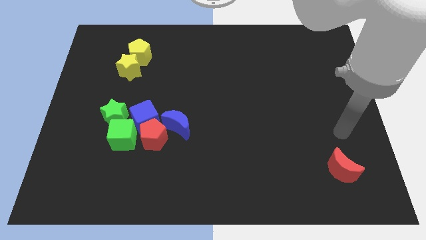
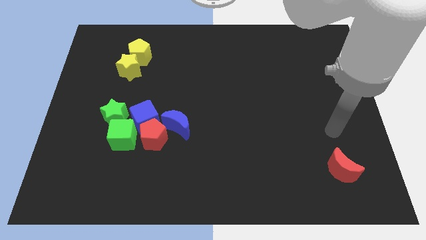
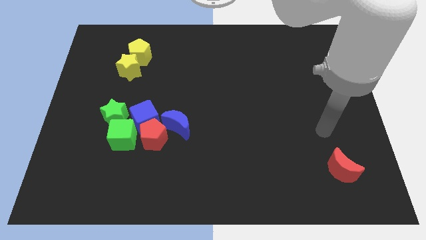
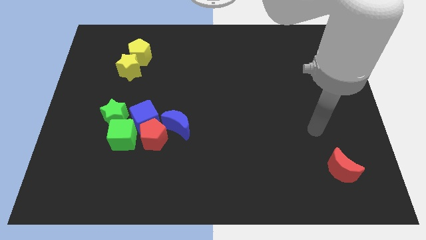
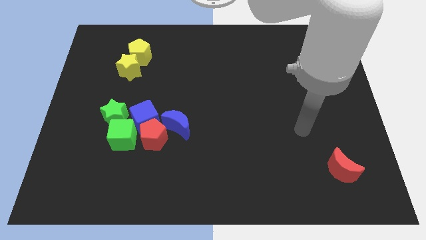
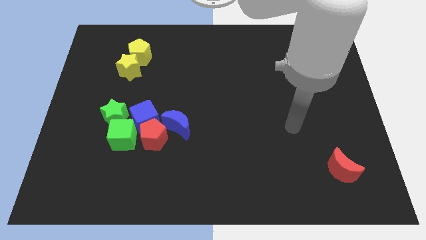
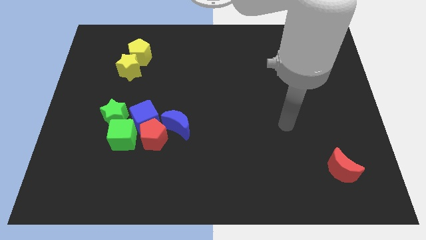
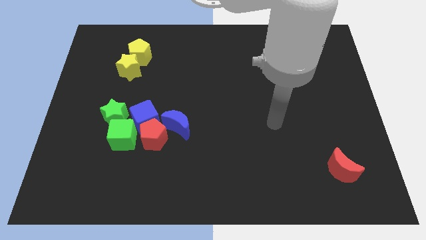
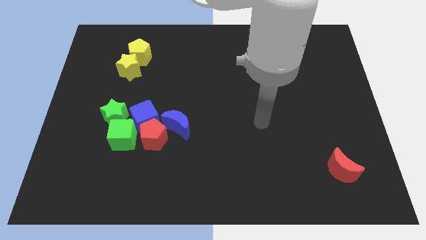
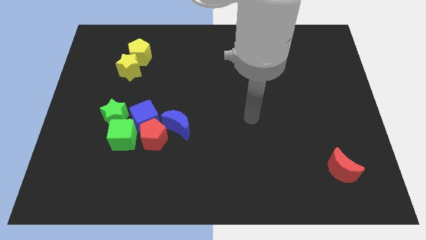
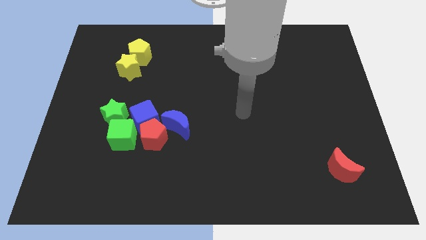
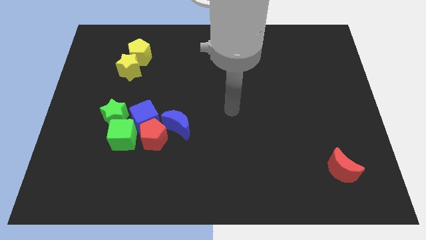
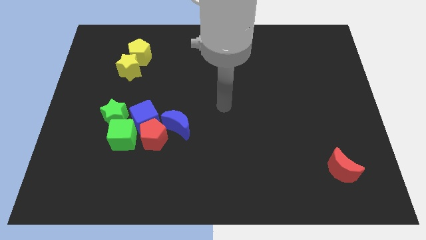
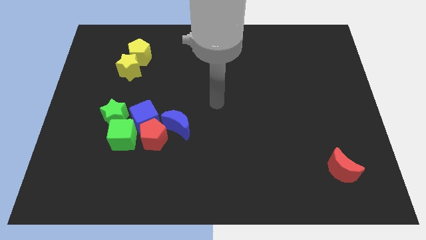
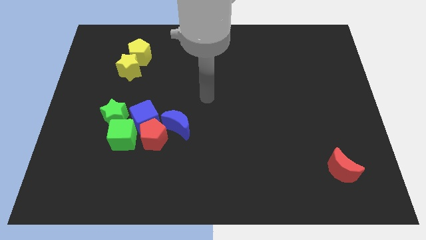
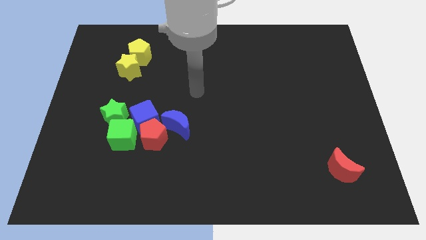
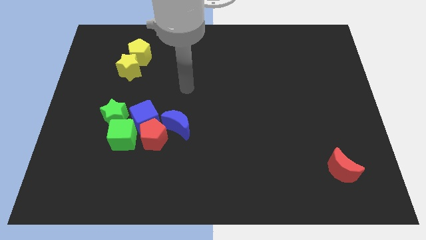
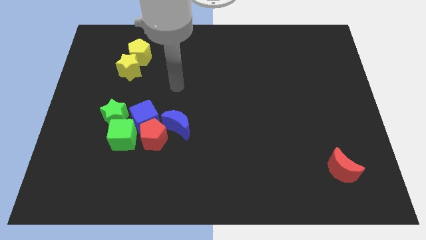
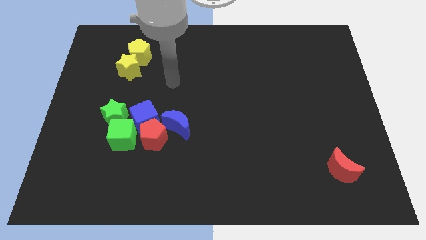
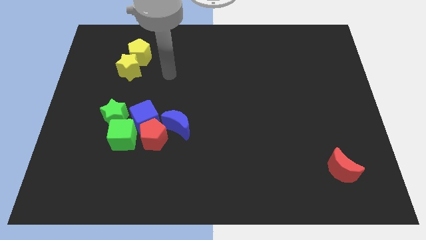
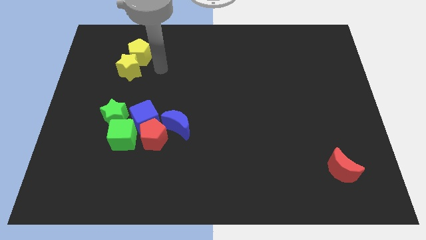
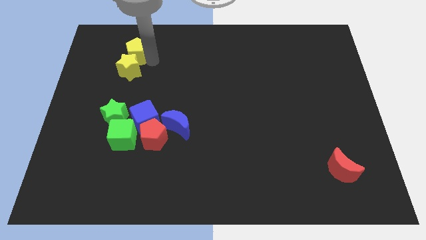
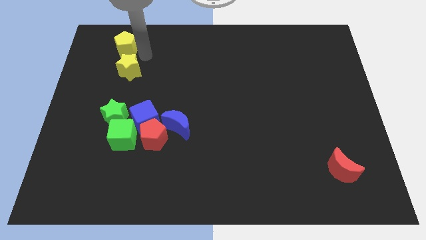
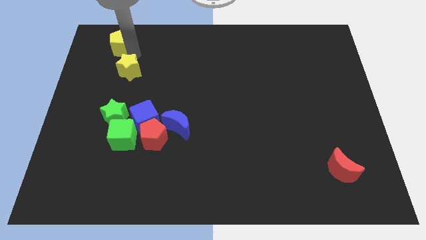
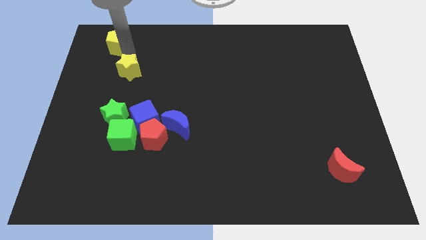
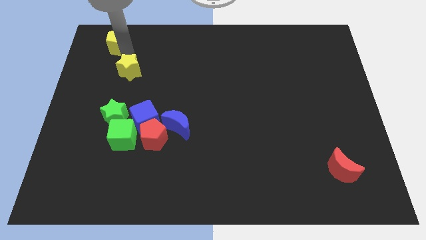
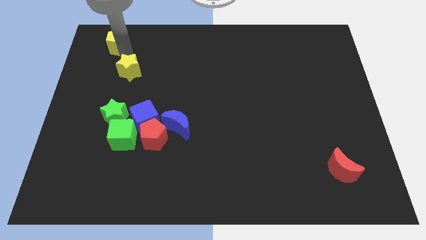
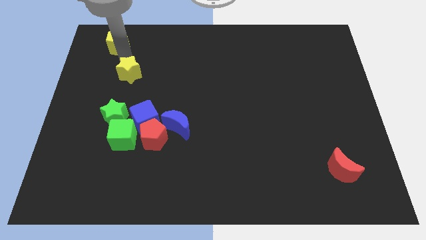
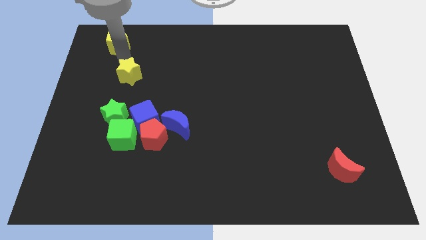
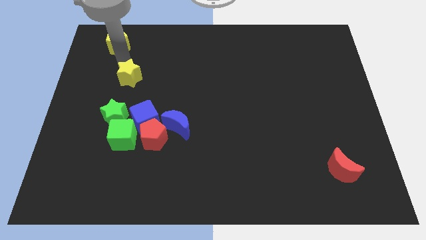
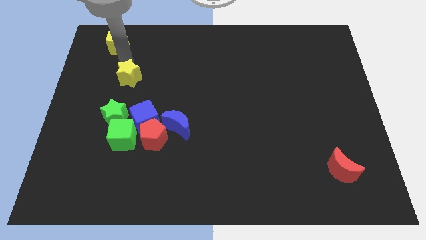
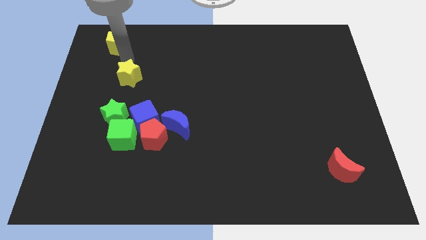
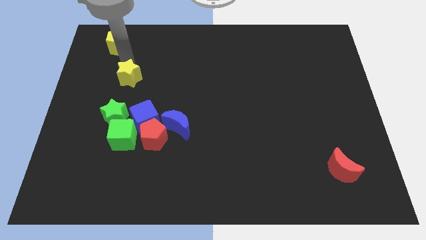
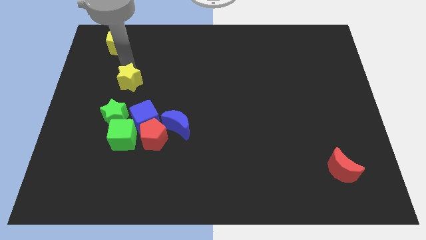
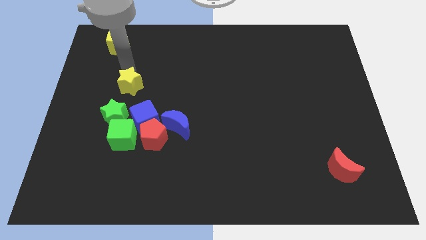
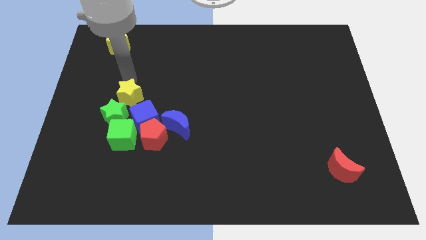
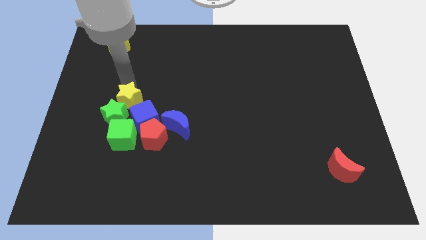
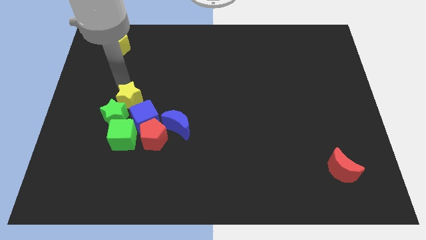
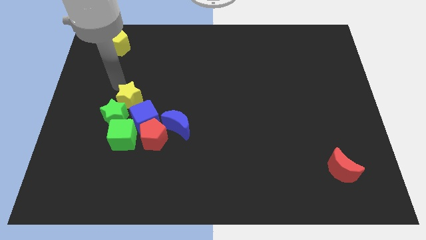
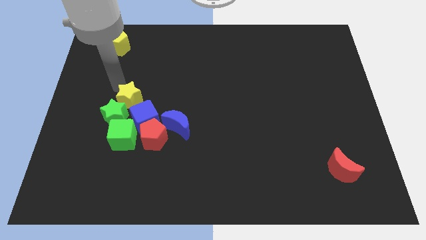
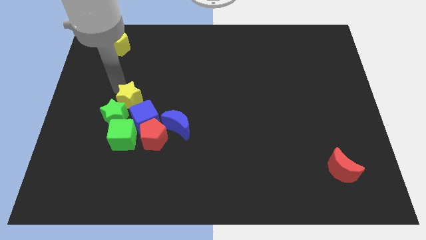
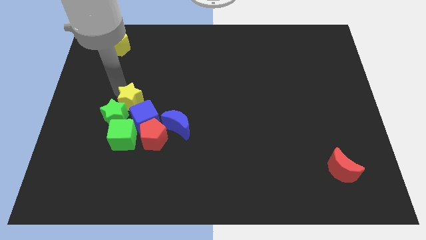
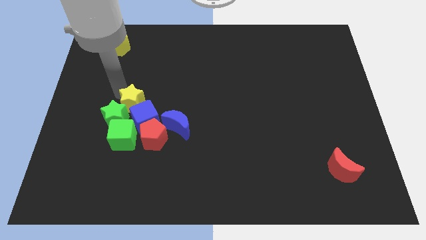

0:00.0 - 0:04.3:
move the yellow star towards the blue cube

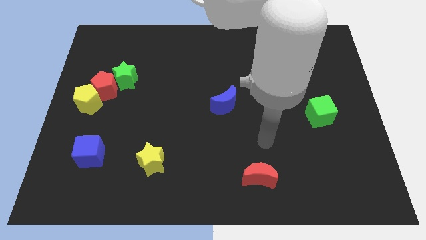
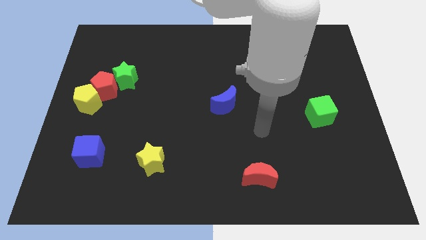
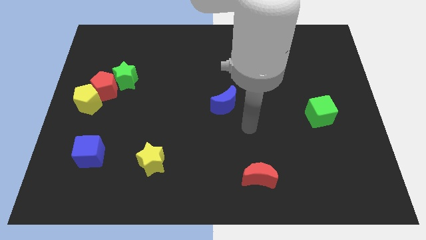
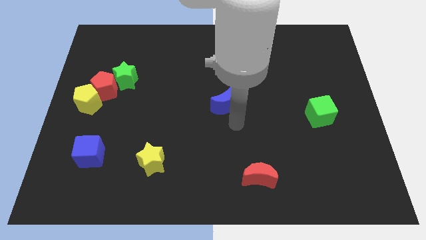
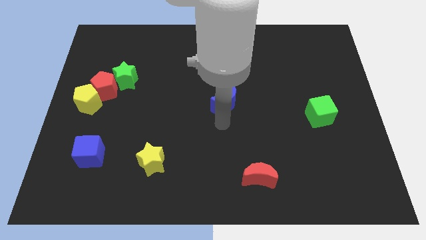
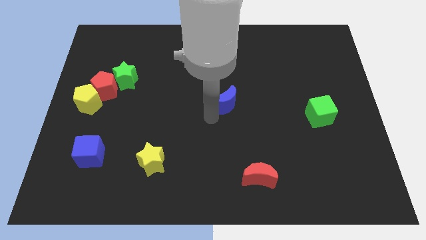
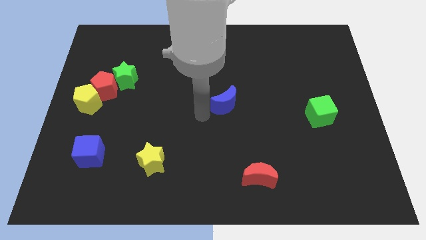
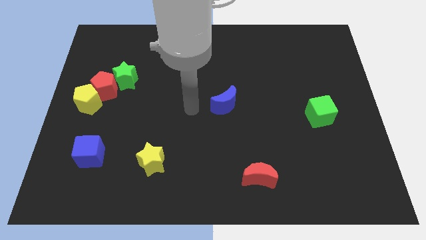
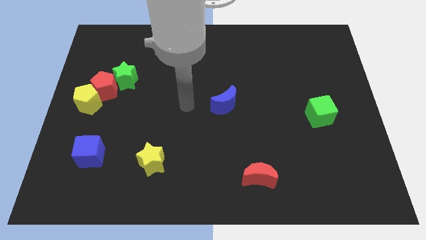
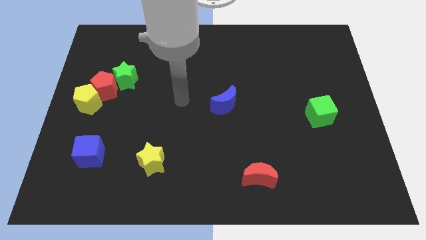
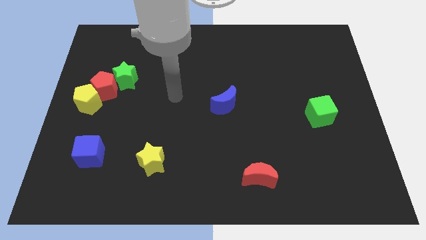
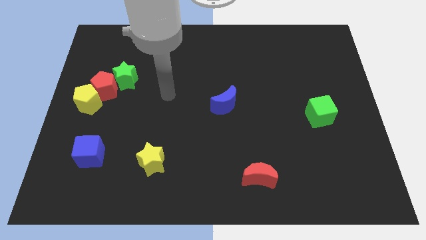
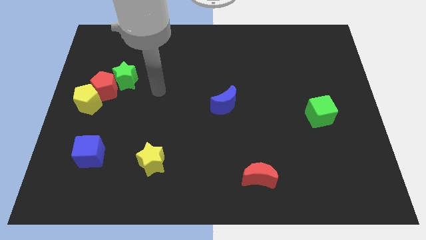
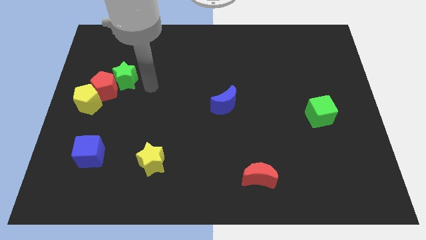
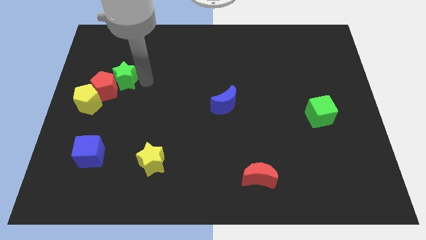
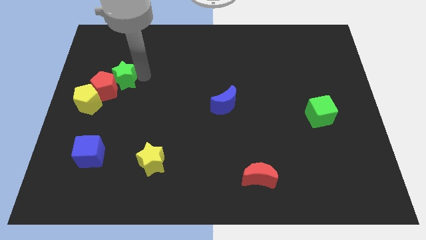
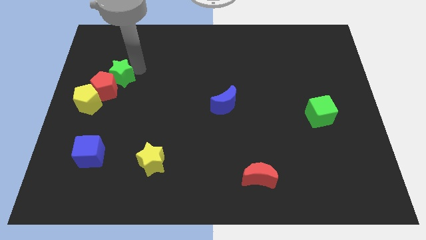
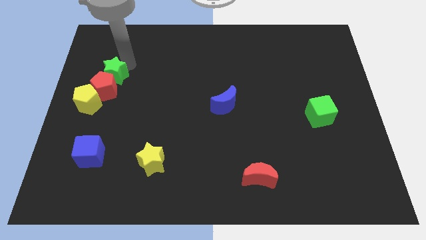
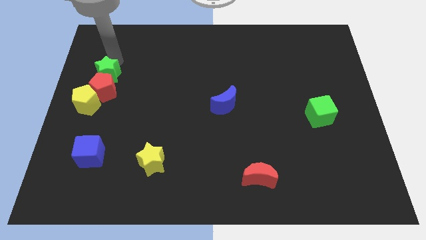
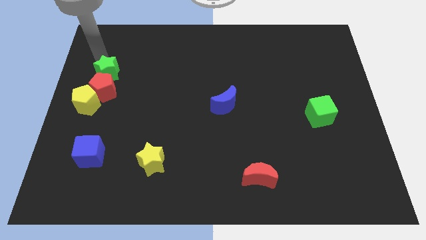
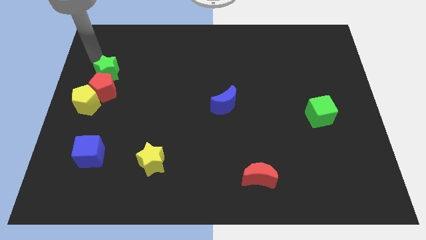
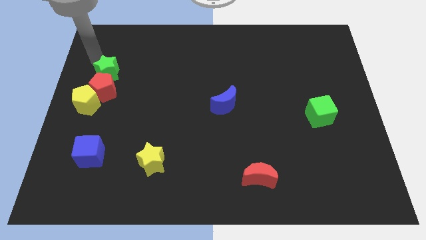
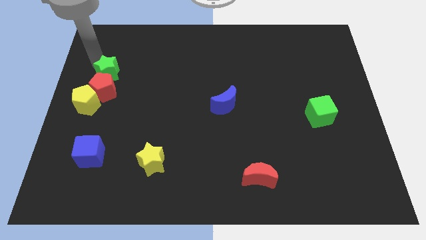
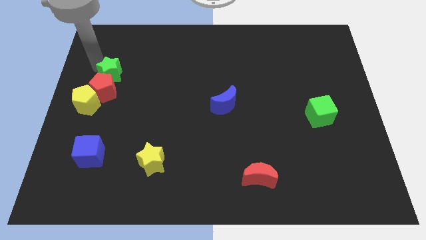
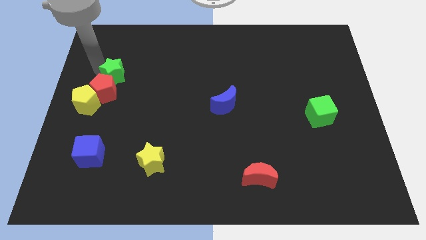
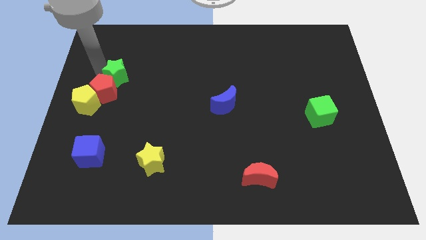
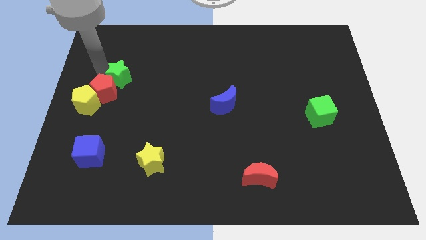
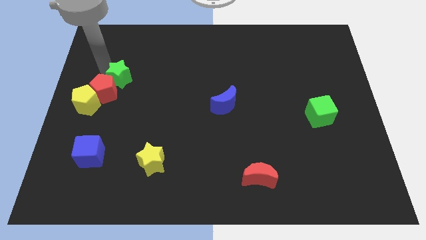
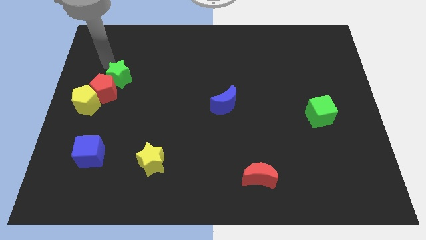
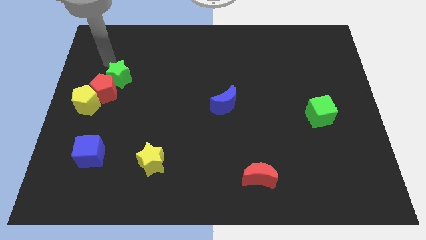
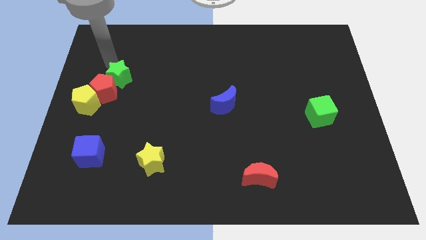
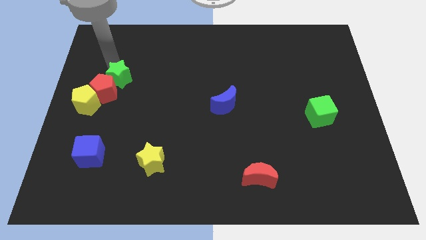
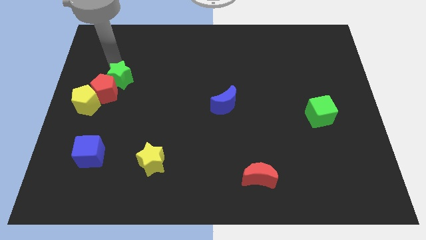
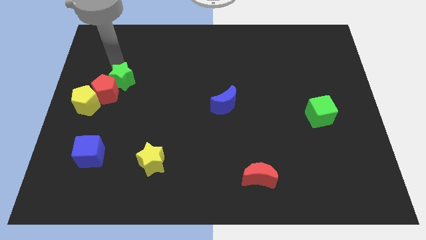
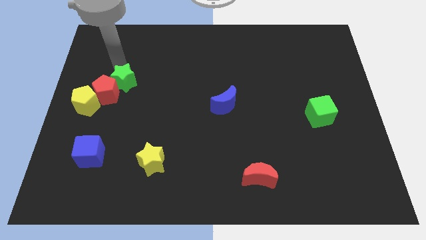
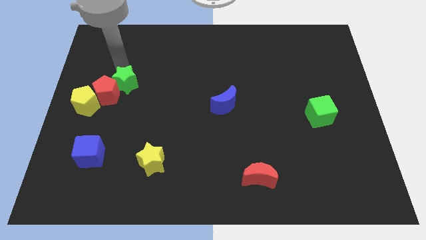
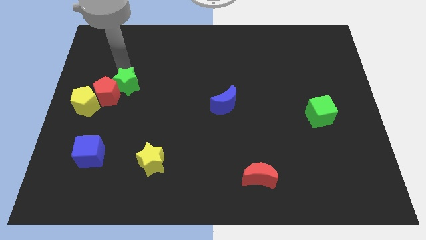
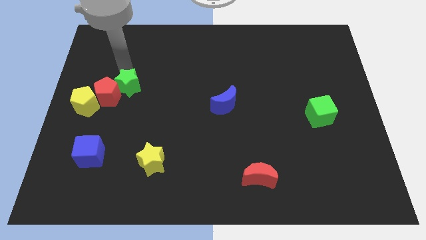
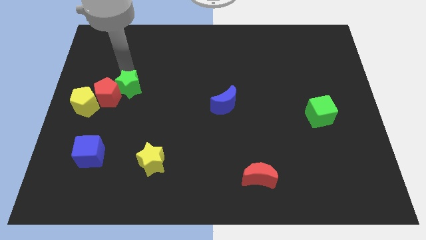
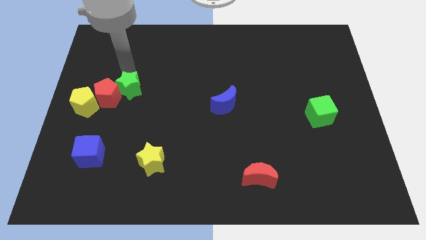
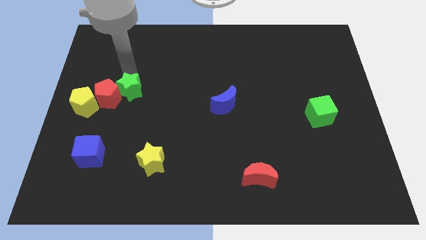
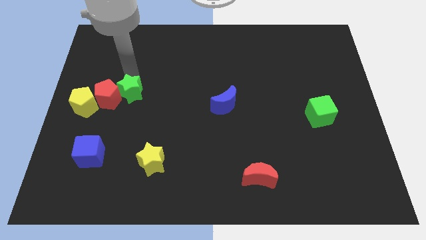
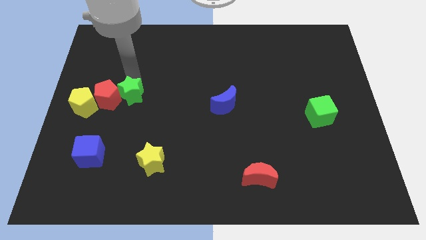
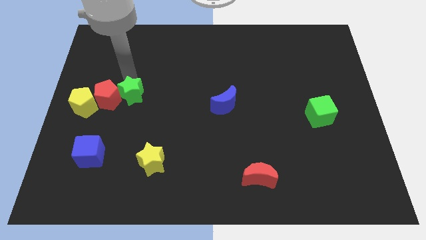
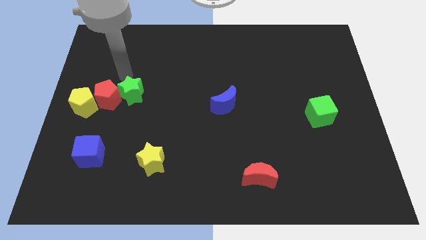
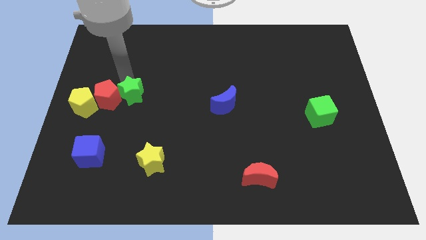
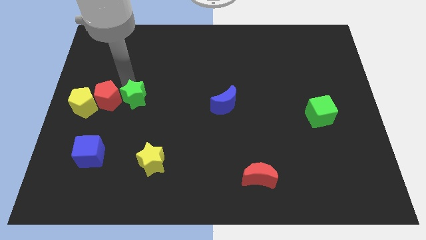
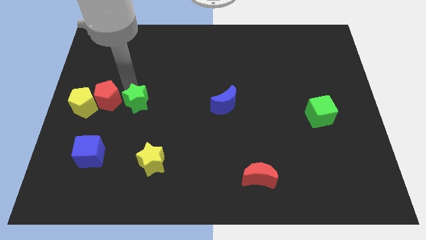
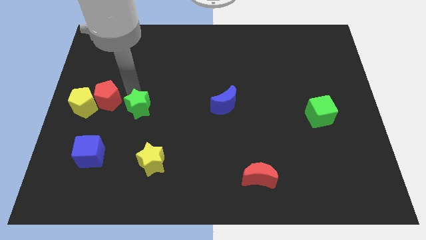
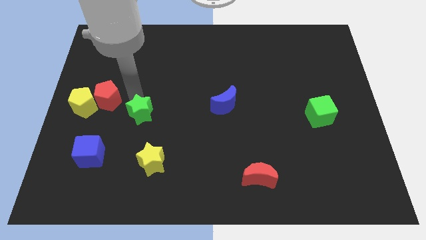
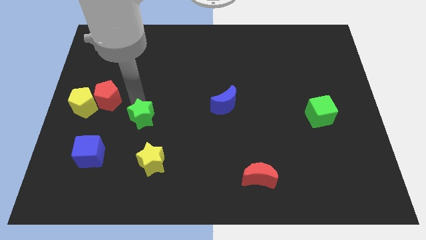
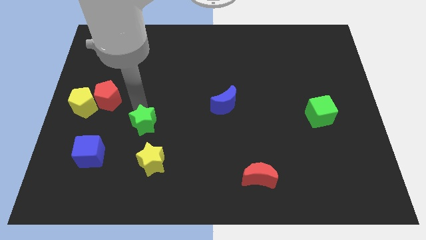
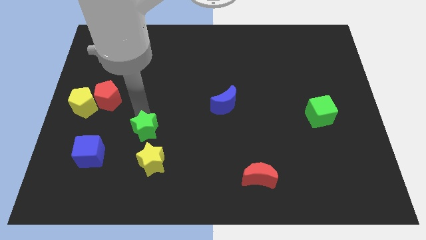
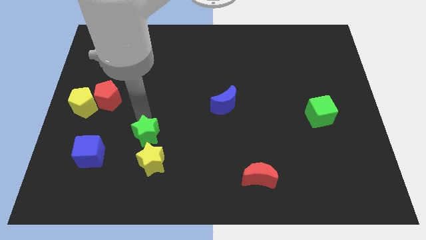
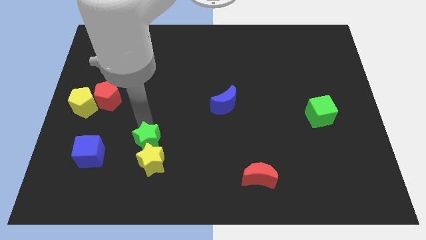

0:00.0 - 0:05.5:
put the green star close to the yellow star
